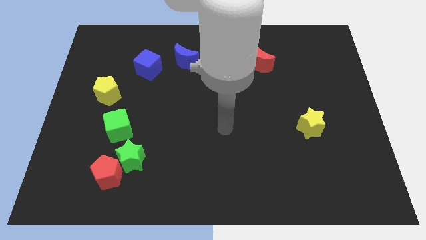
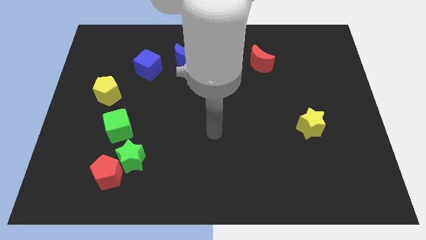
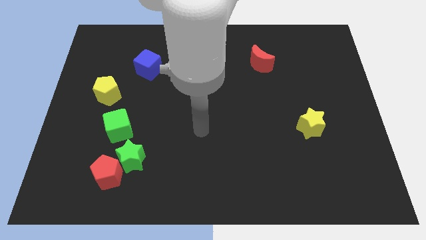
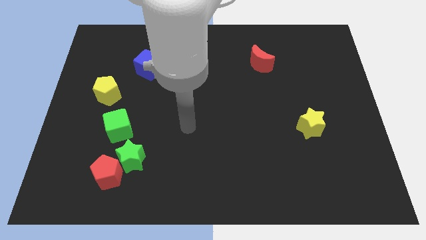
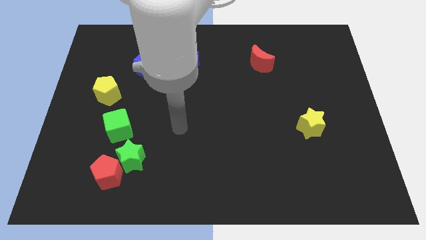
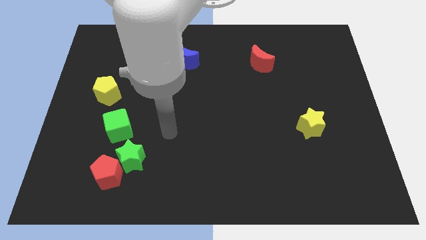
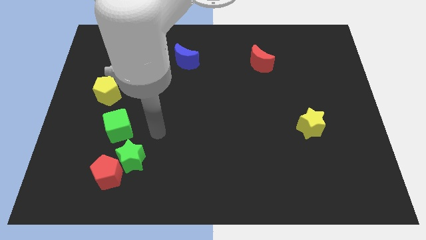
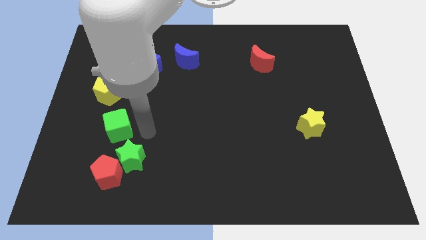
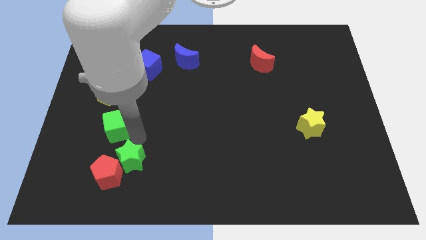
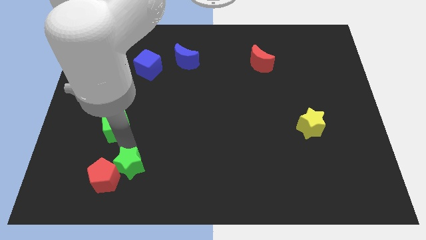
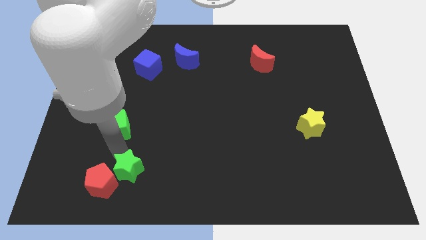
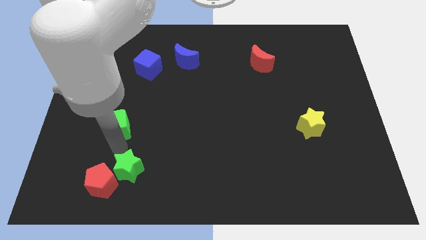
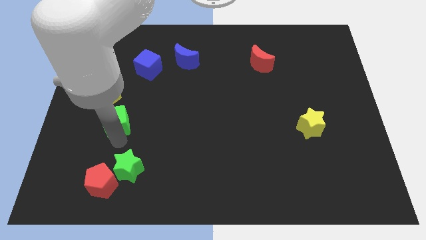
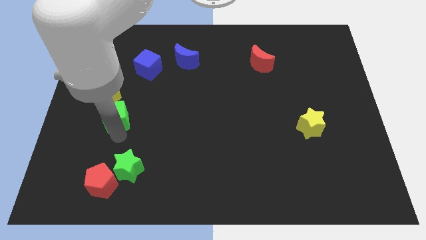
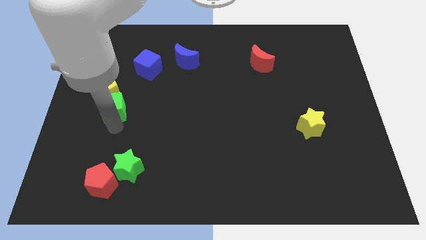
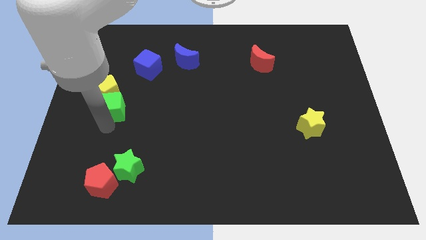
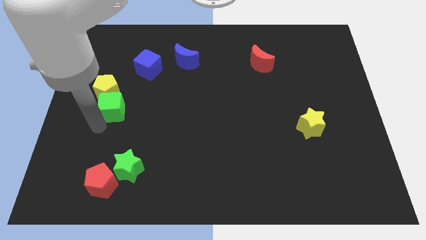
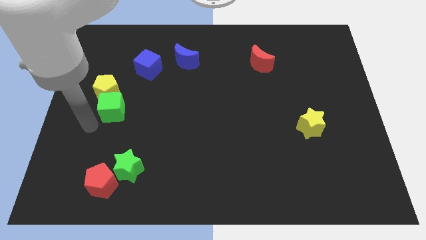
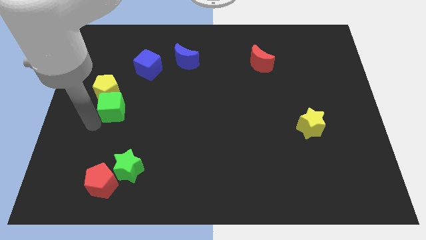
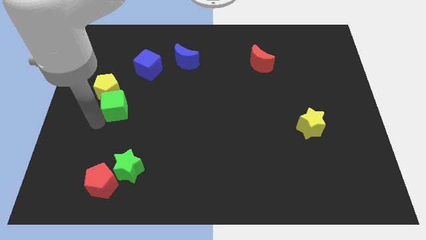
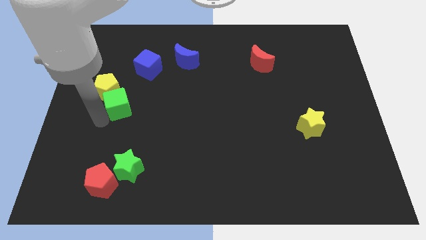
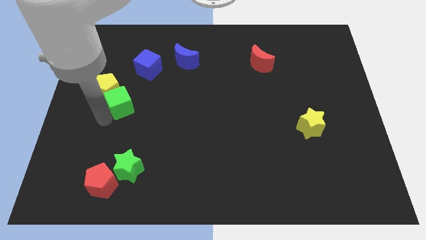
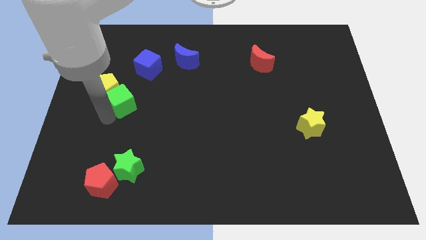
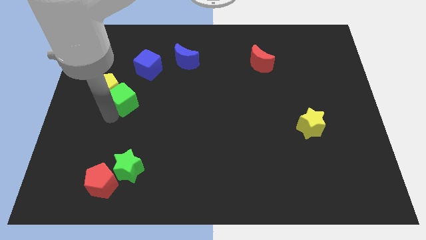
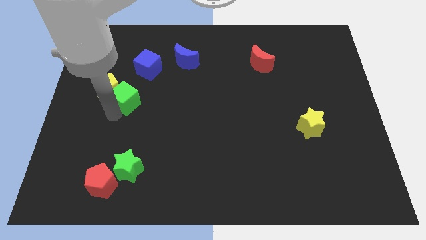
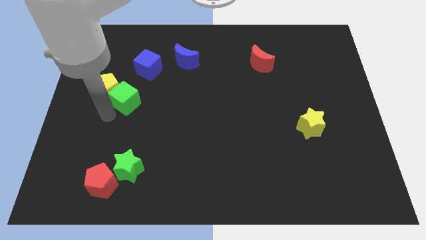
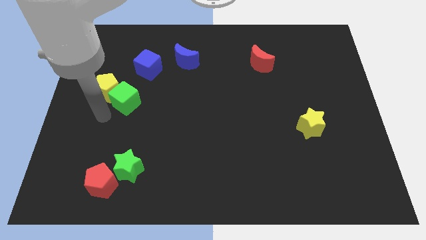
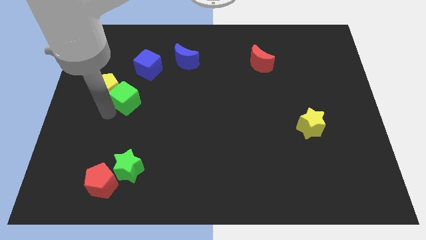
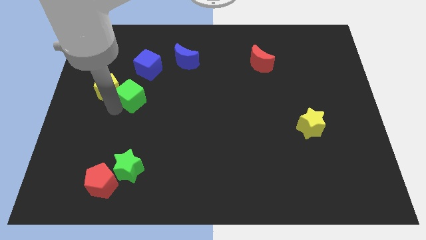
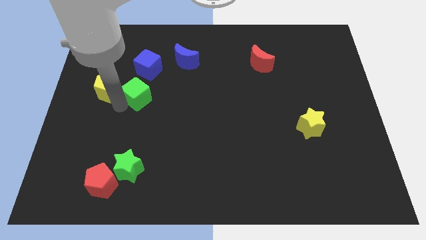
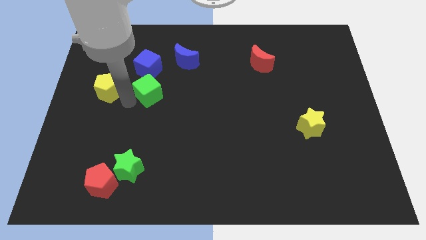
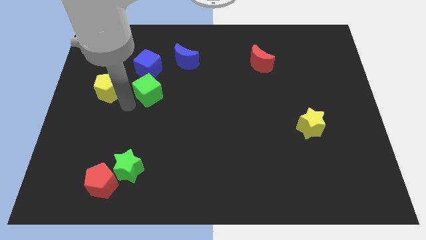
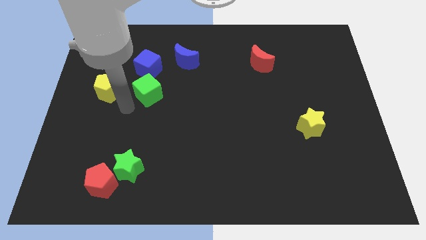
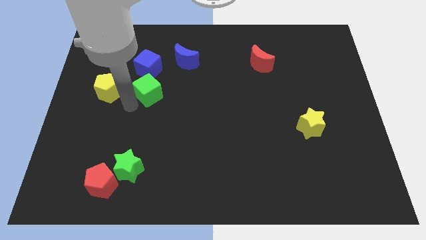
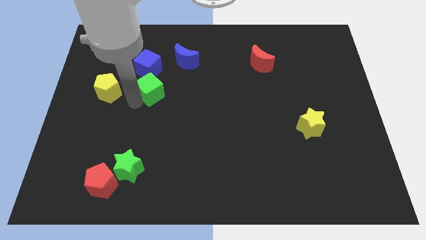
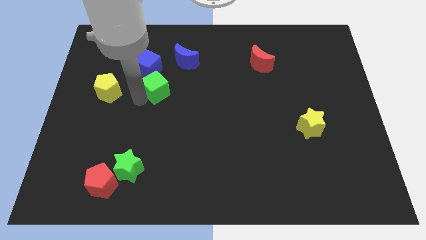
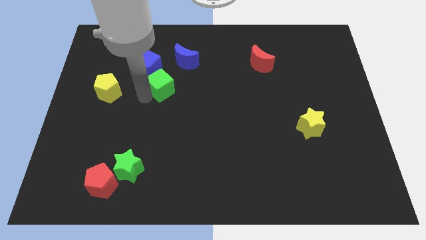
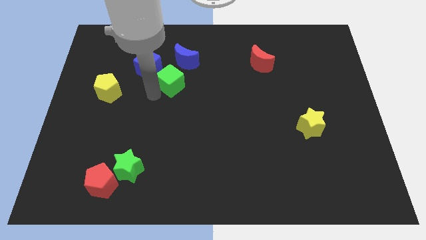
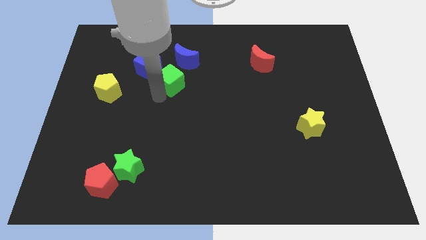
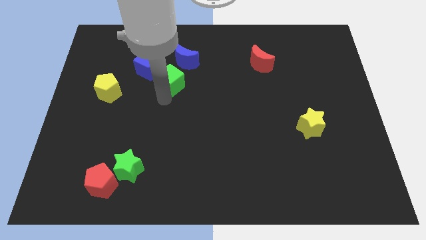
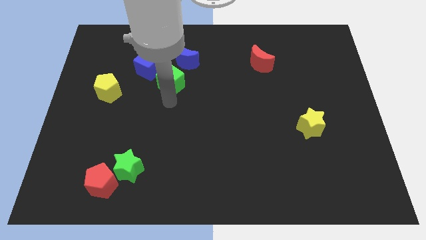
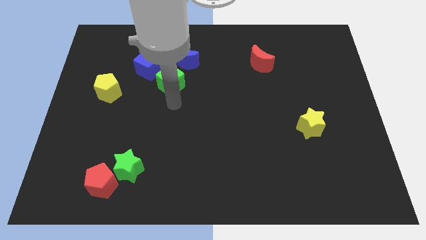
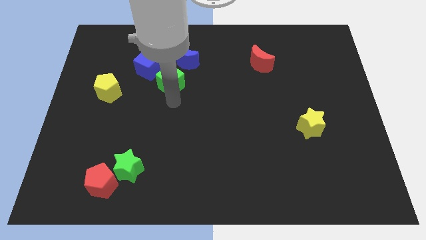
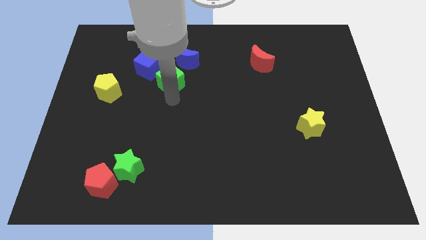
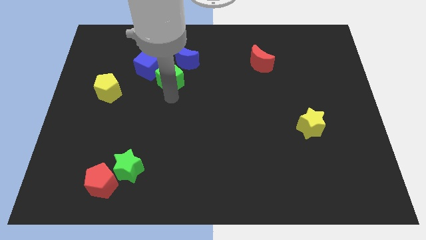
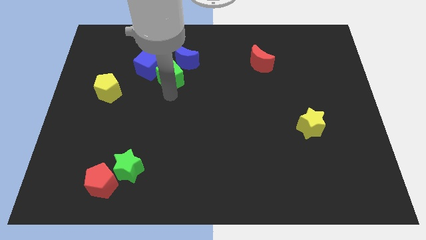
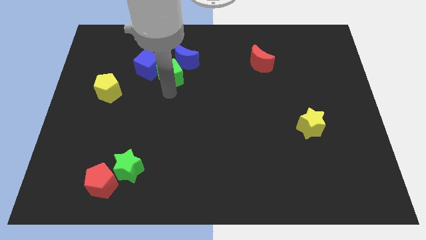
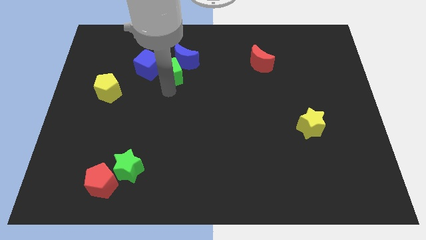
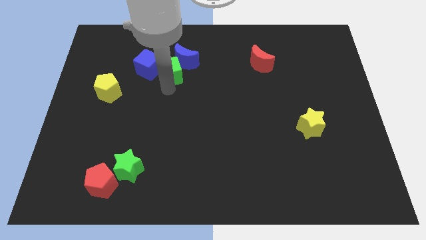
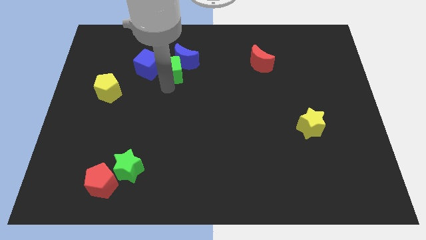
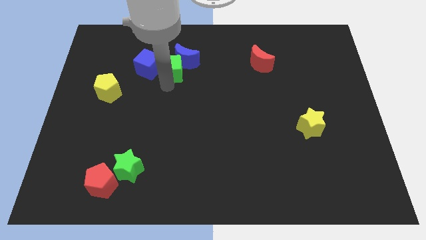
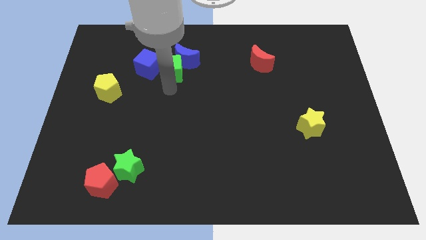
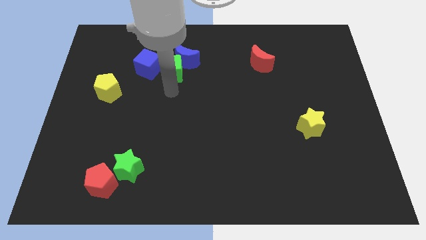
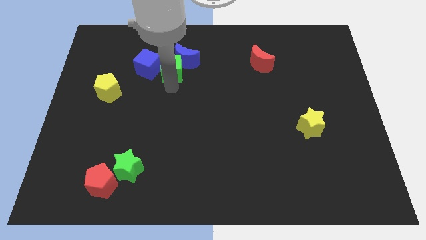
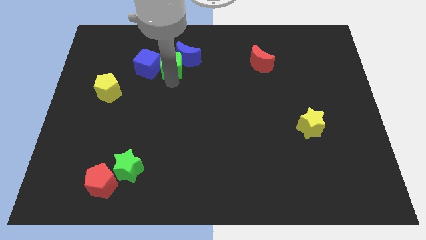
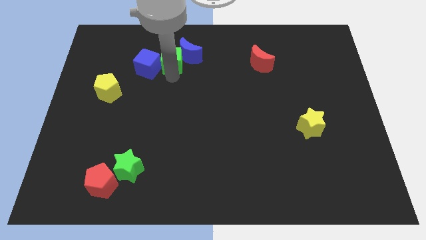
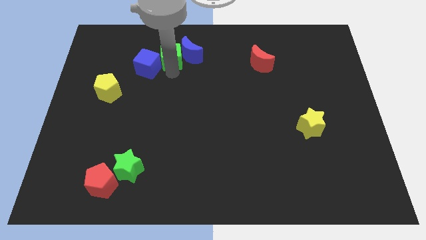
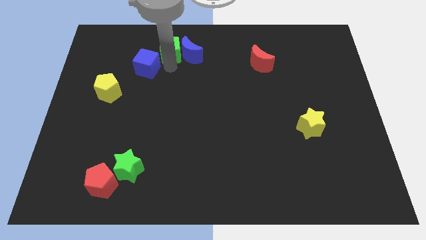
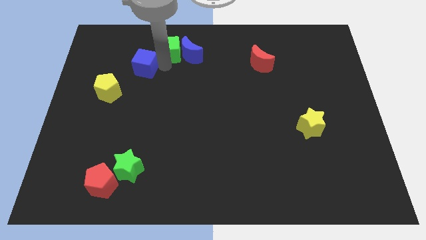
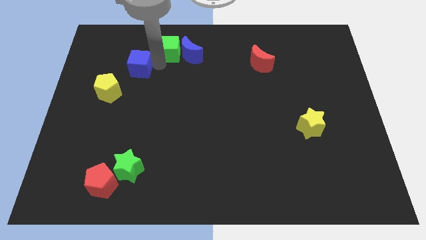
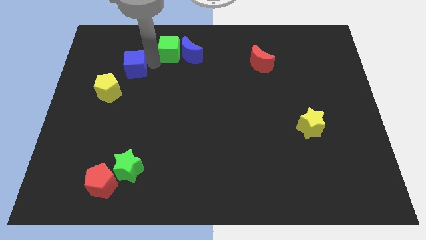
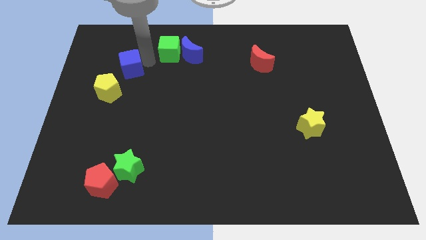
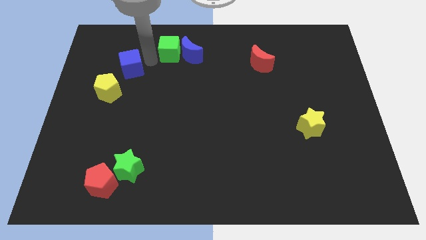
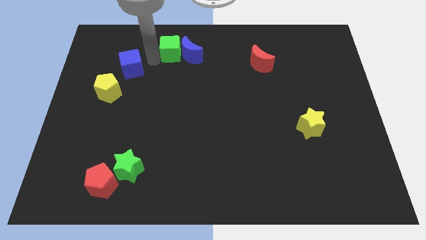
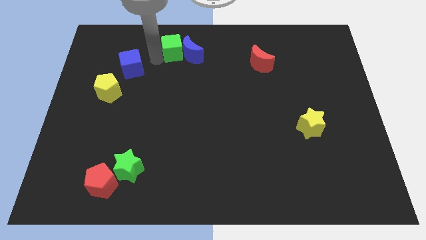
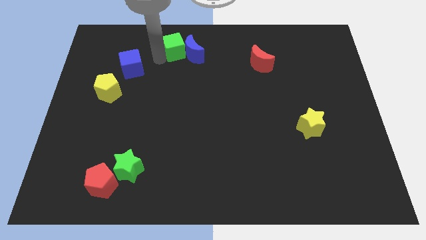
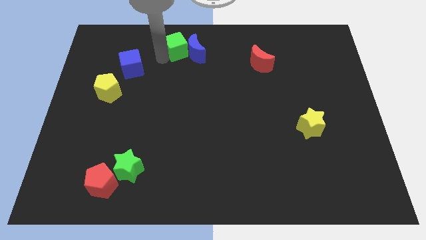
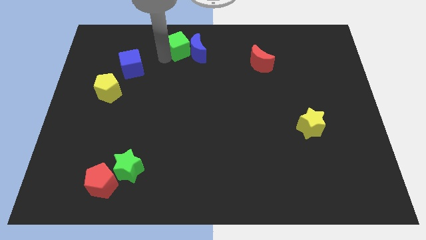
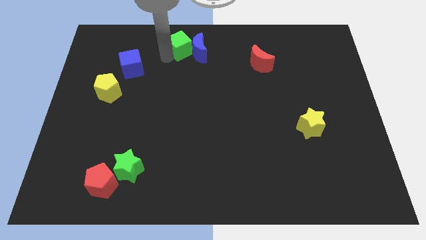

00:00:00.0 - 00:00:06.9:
slide the green cube to the top
